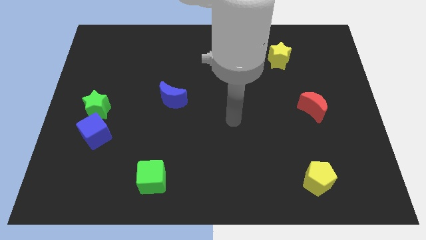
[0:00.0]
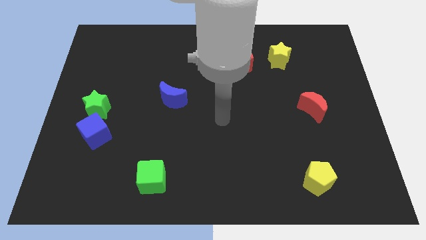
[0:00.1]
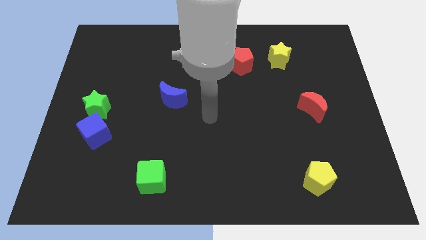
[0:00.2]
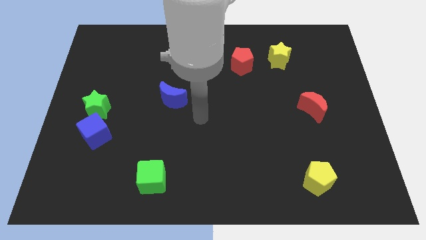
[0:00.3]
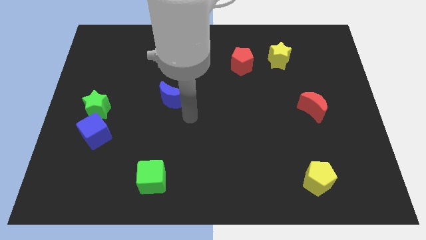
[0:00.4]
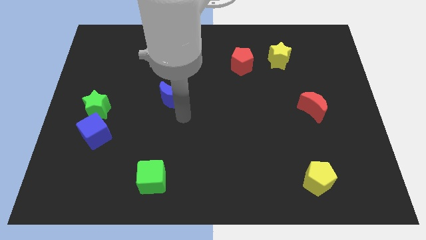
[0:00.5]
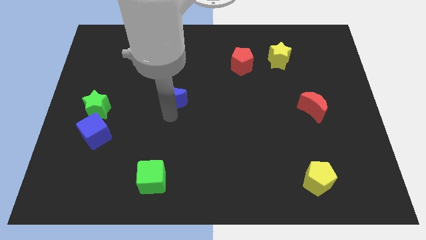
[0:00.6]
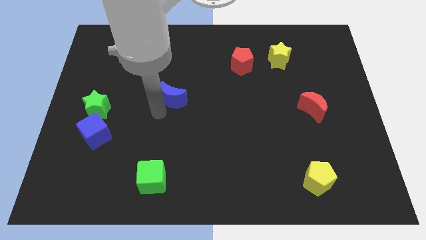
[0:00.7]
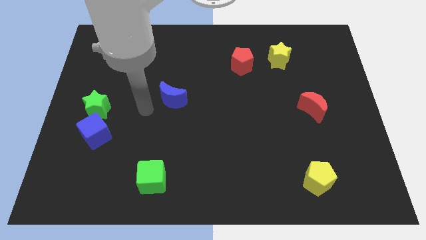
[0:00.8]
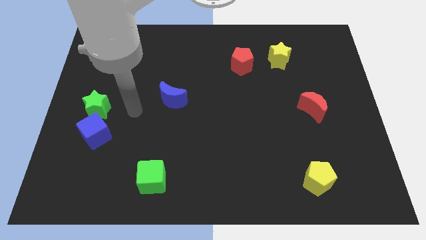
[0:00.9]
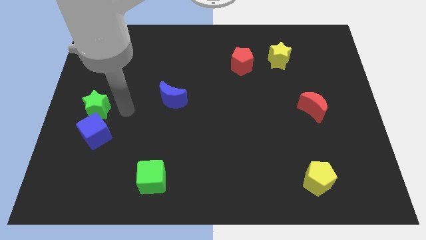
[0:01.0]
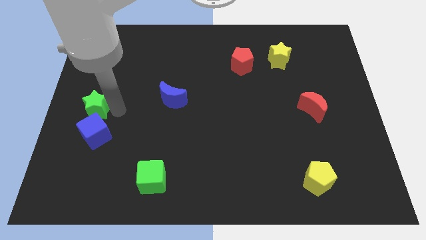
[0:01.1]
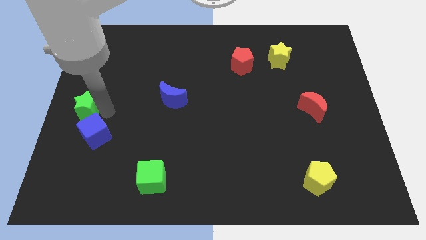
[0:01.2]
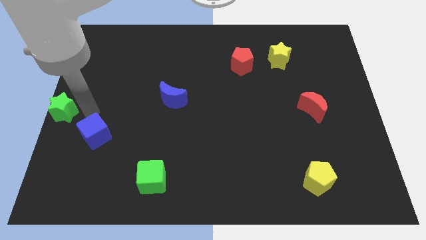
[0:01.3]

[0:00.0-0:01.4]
pull the blue cube apart from the green star

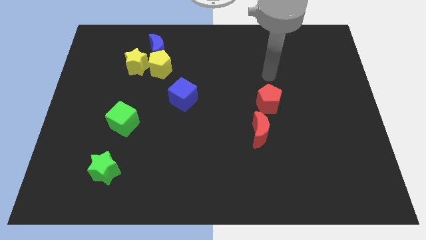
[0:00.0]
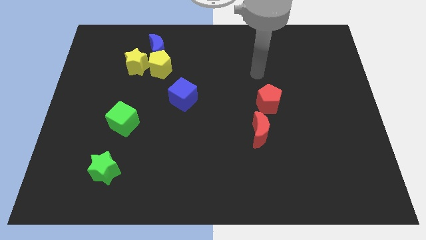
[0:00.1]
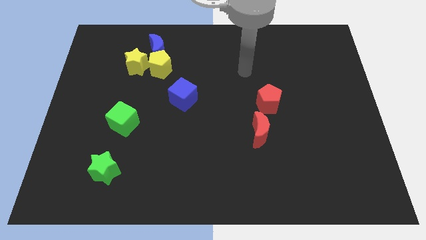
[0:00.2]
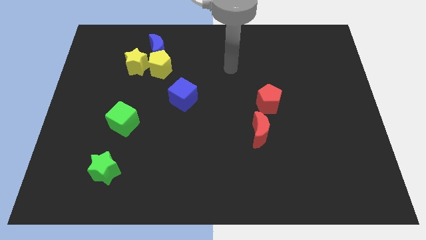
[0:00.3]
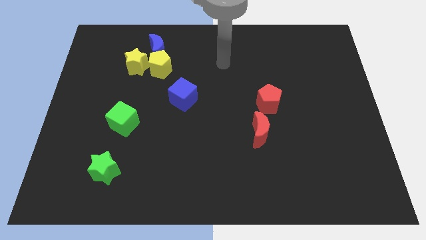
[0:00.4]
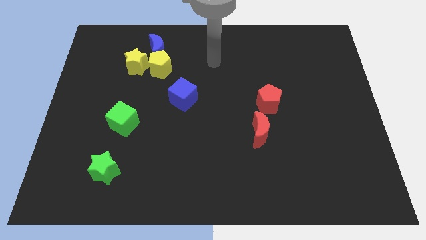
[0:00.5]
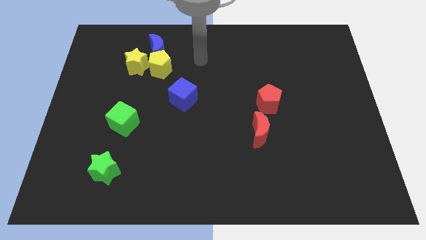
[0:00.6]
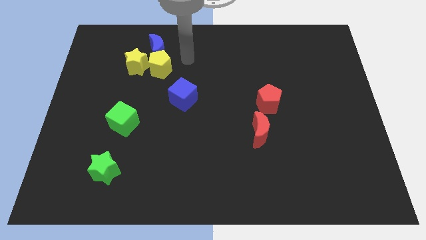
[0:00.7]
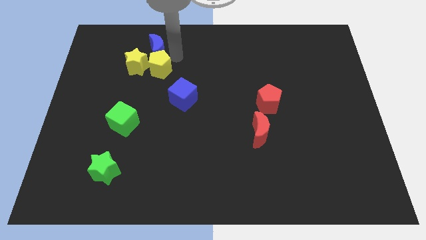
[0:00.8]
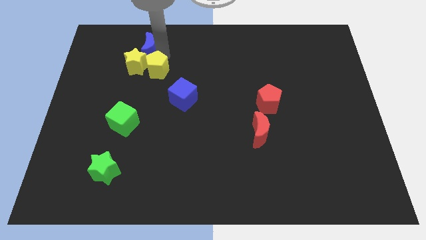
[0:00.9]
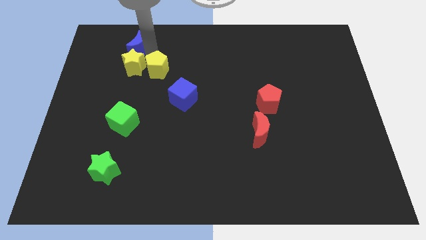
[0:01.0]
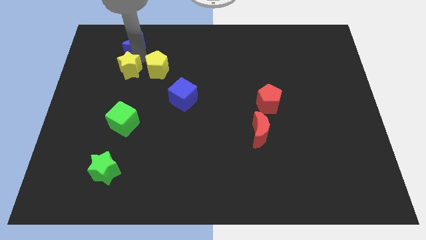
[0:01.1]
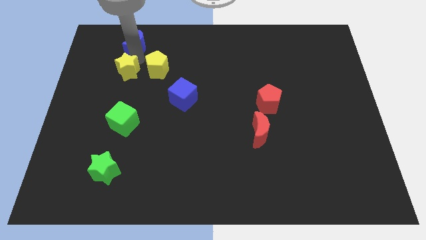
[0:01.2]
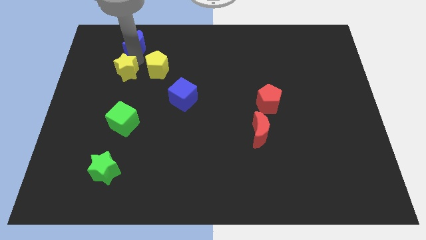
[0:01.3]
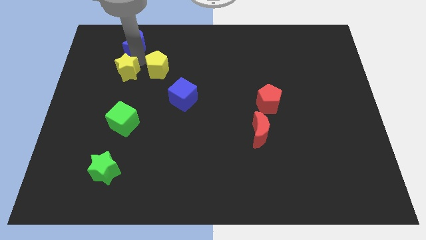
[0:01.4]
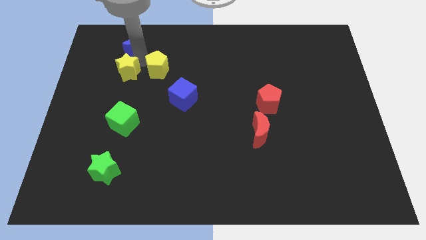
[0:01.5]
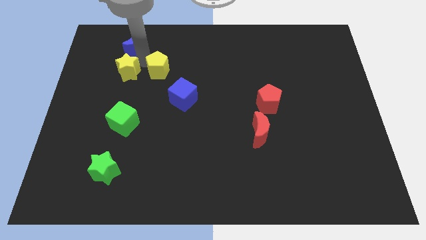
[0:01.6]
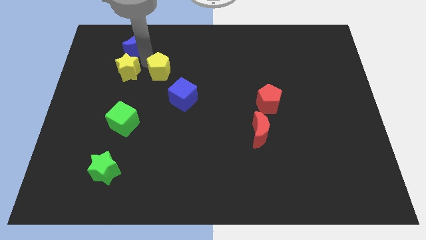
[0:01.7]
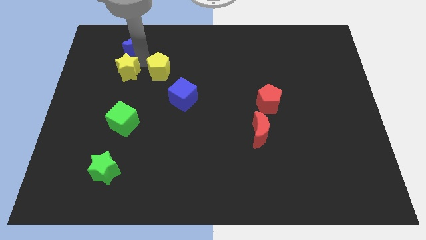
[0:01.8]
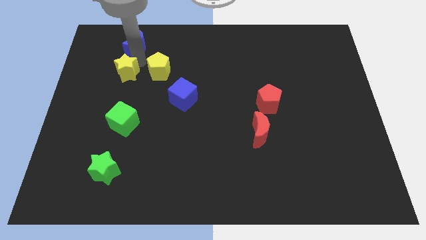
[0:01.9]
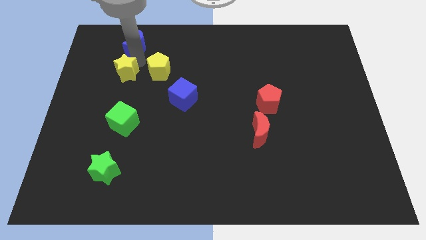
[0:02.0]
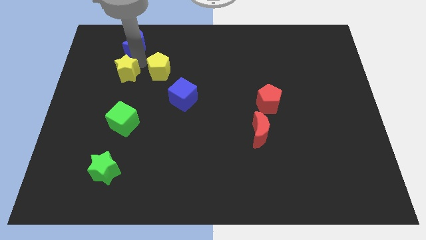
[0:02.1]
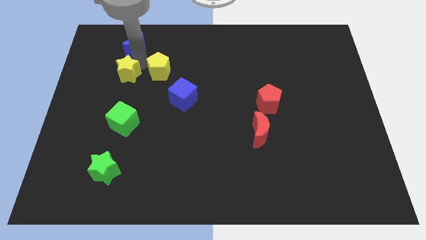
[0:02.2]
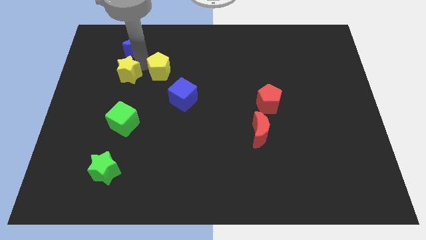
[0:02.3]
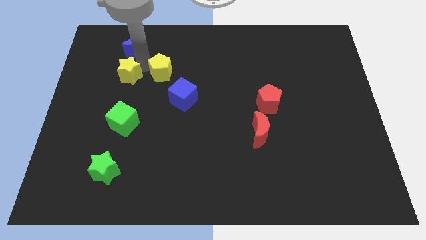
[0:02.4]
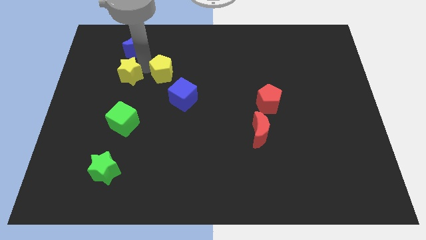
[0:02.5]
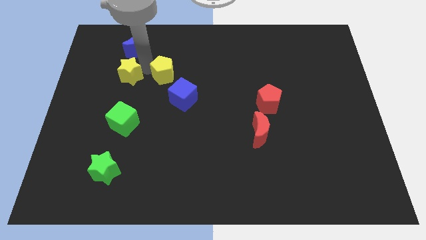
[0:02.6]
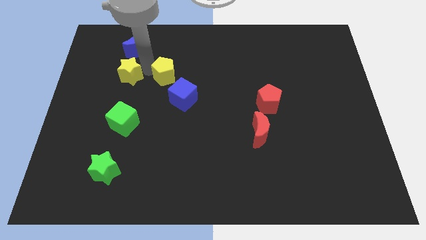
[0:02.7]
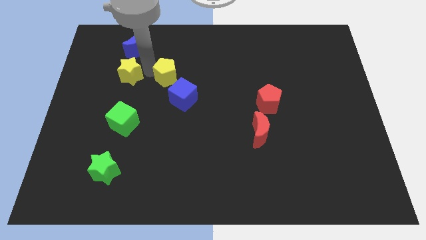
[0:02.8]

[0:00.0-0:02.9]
pull the yellow pentagon apart from the yellow star and blue moon

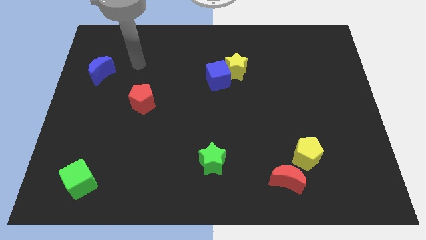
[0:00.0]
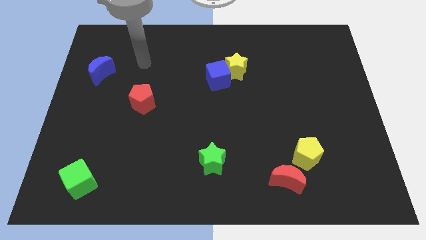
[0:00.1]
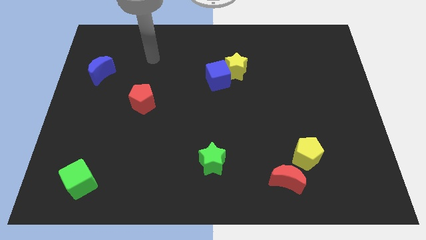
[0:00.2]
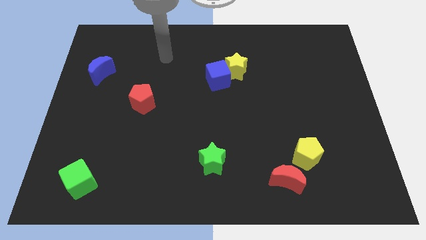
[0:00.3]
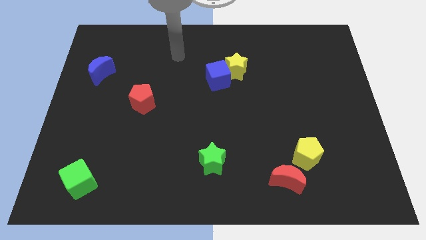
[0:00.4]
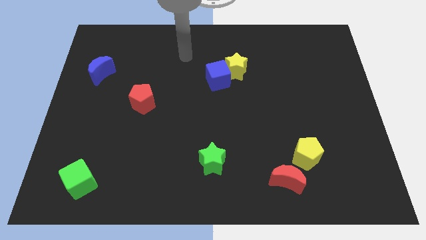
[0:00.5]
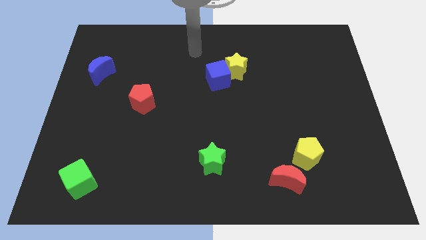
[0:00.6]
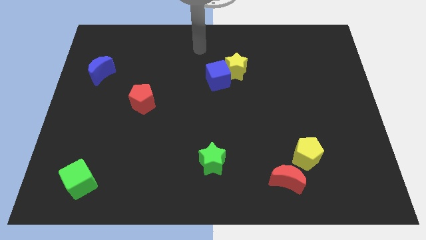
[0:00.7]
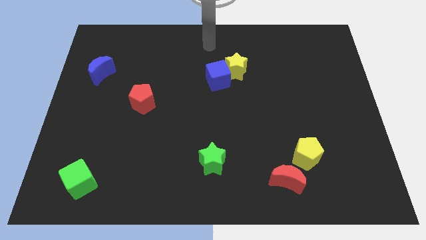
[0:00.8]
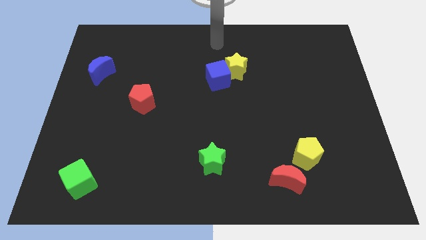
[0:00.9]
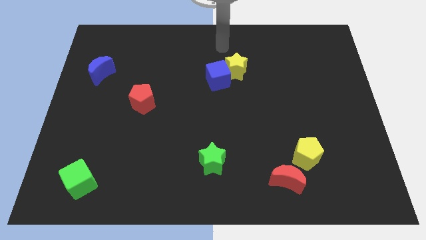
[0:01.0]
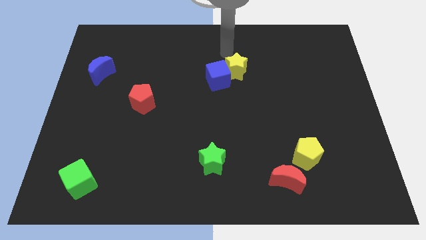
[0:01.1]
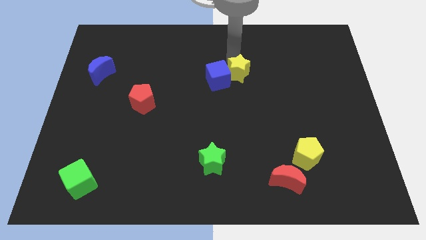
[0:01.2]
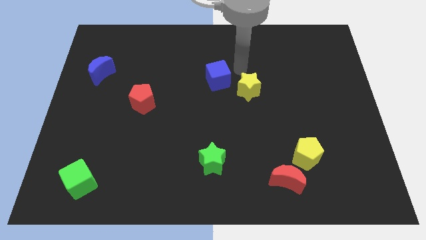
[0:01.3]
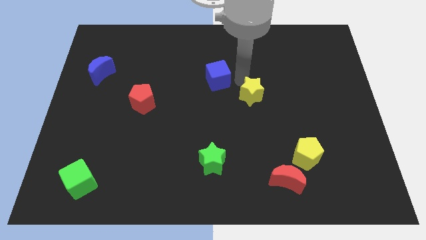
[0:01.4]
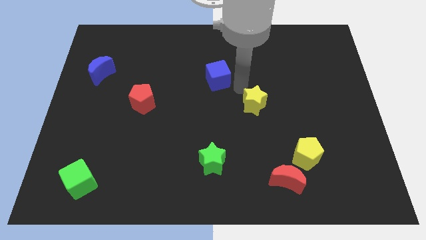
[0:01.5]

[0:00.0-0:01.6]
separate the blue cube from the yellow star

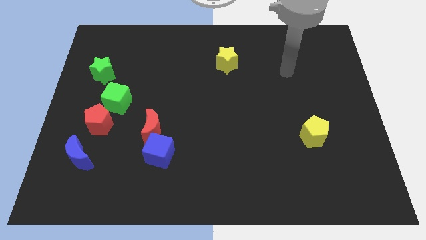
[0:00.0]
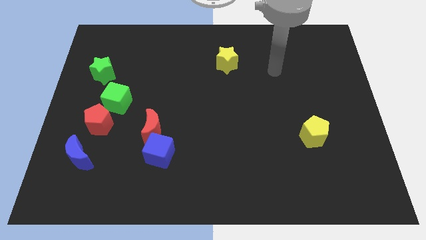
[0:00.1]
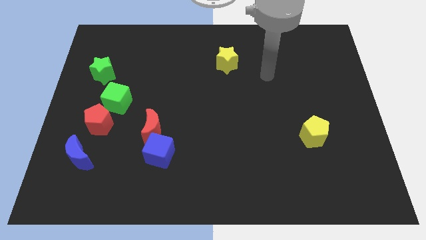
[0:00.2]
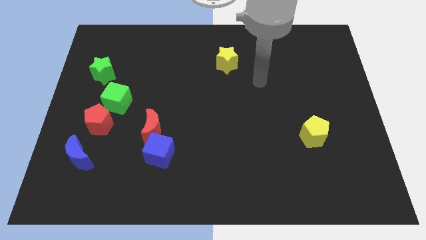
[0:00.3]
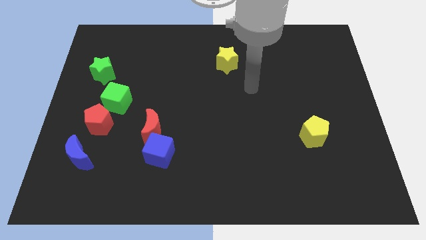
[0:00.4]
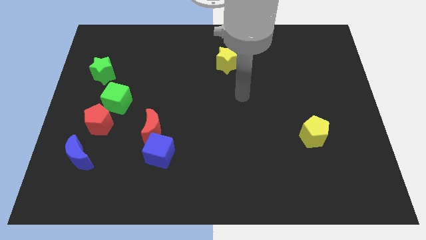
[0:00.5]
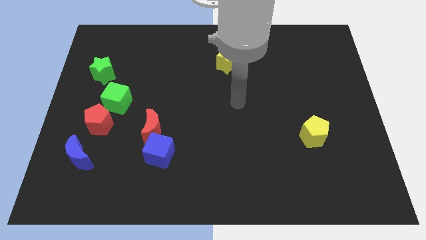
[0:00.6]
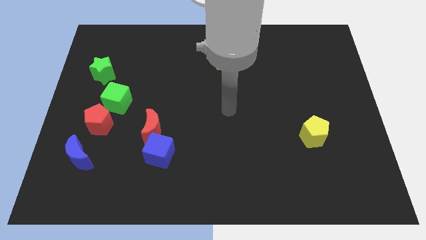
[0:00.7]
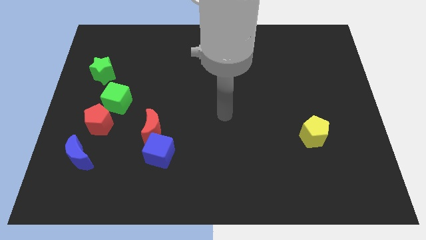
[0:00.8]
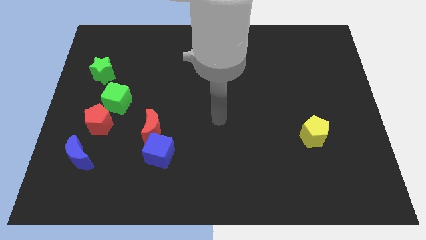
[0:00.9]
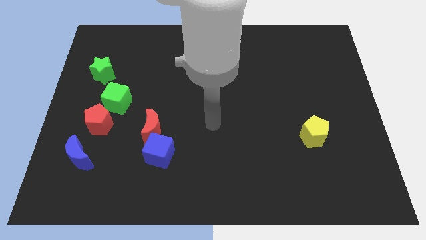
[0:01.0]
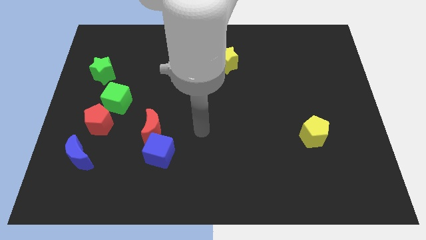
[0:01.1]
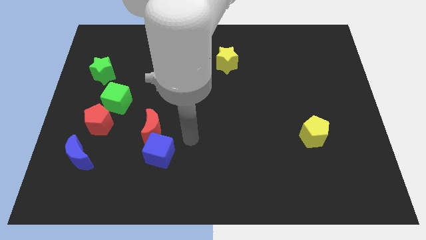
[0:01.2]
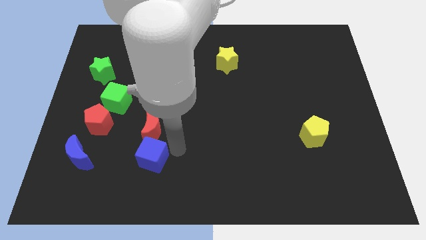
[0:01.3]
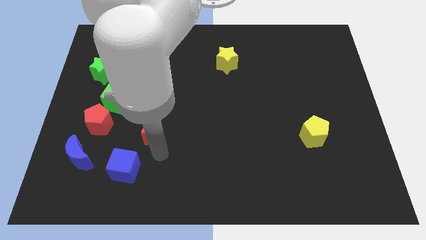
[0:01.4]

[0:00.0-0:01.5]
move the red moon away from the blue cube

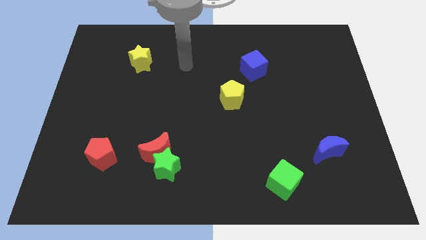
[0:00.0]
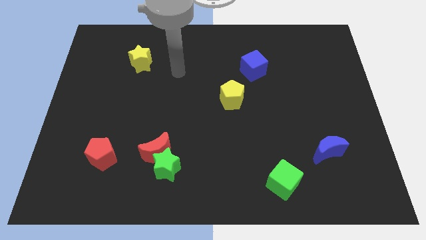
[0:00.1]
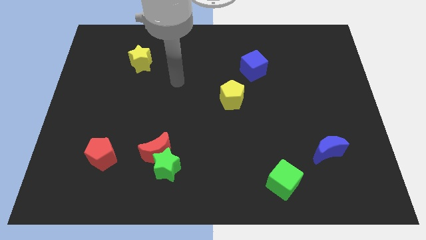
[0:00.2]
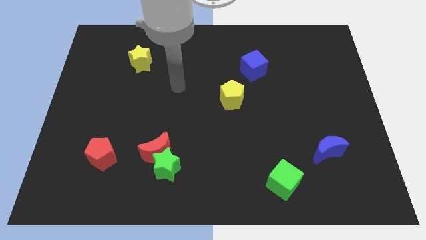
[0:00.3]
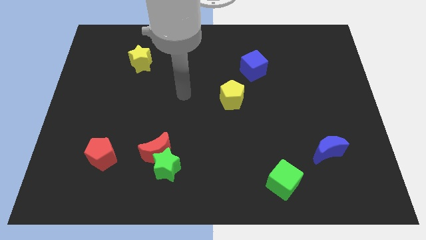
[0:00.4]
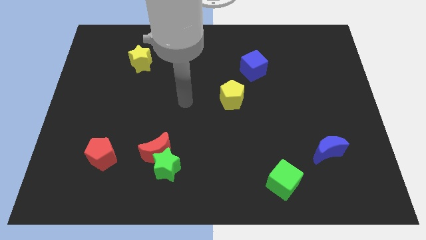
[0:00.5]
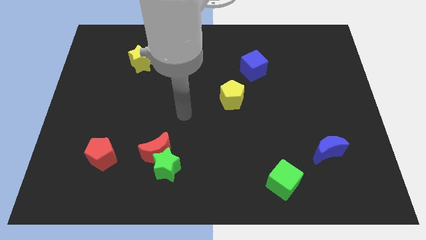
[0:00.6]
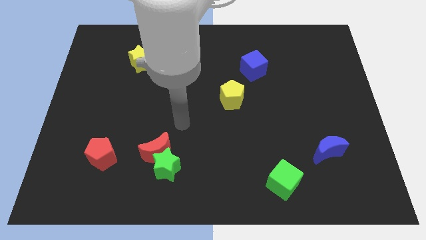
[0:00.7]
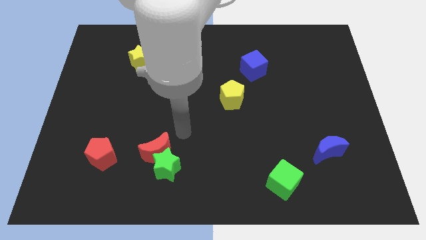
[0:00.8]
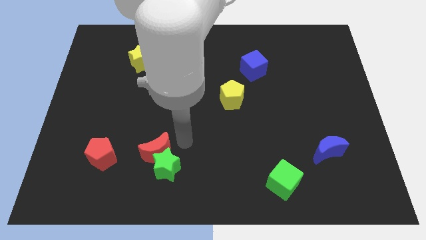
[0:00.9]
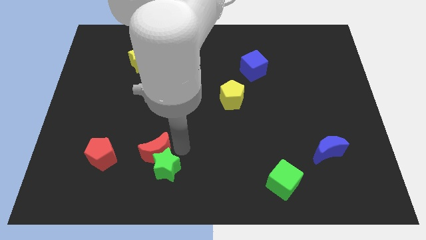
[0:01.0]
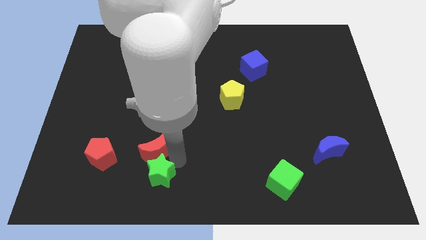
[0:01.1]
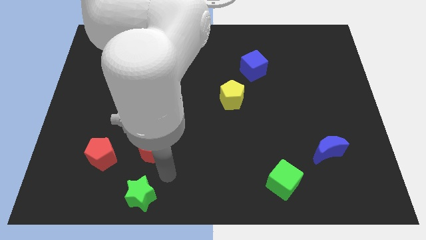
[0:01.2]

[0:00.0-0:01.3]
separate the red moon from the green star

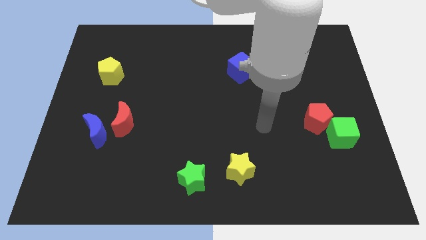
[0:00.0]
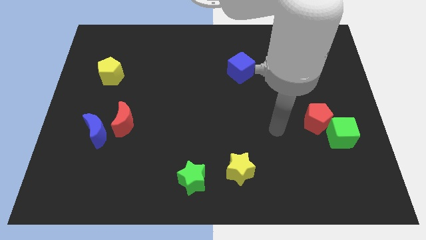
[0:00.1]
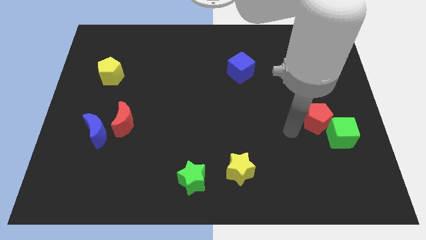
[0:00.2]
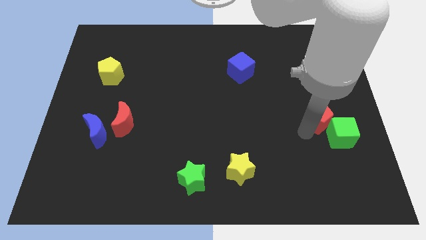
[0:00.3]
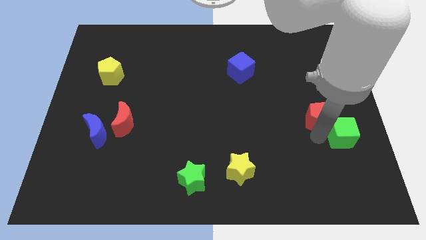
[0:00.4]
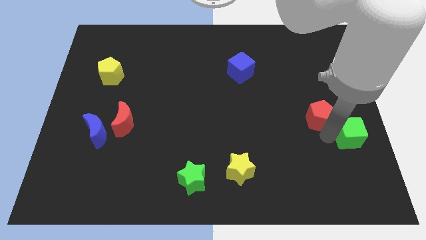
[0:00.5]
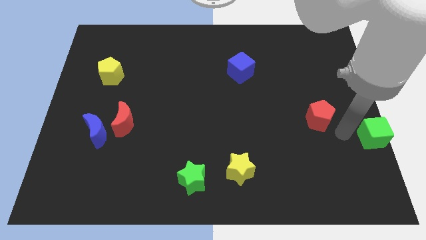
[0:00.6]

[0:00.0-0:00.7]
separate the red pentagon from the green cube
